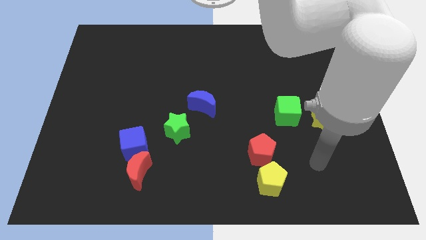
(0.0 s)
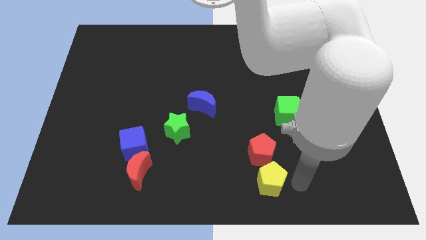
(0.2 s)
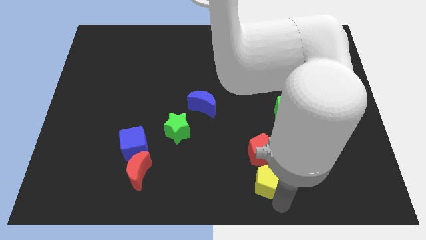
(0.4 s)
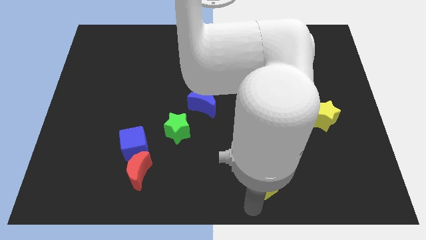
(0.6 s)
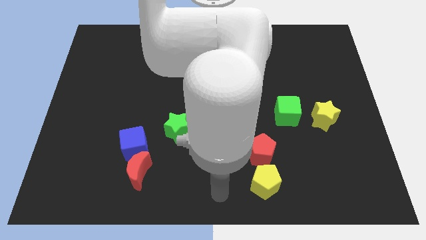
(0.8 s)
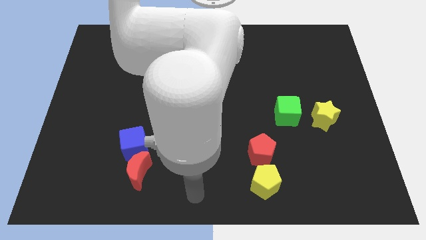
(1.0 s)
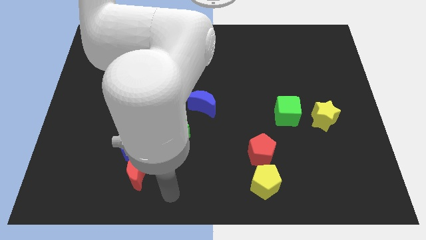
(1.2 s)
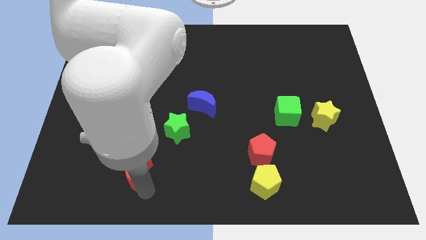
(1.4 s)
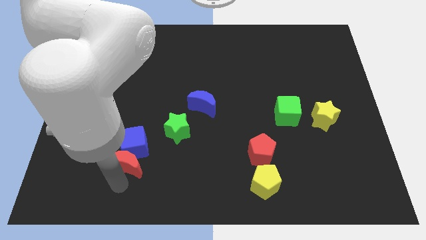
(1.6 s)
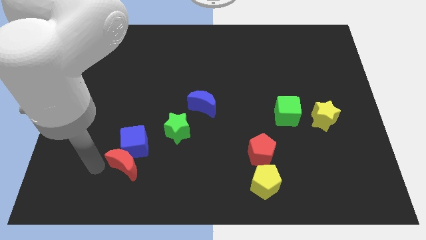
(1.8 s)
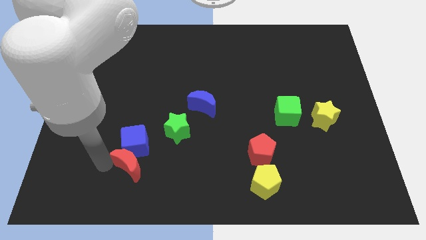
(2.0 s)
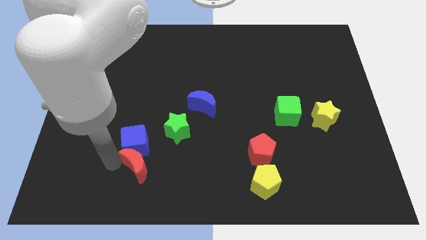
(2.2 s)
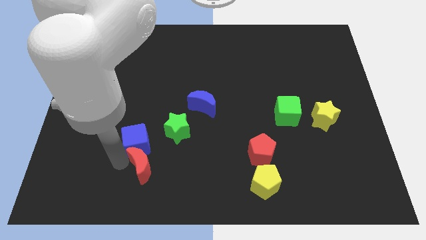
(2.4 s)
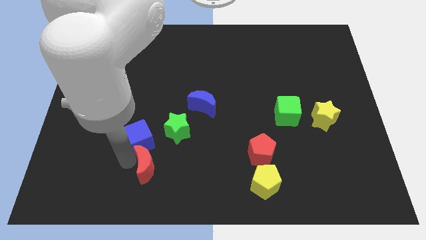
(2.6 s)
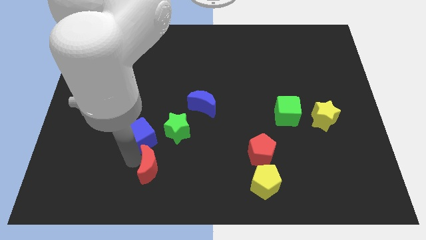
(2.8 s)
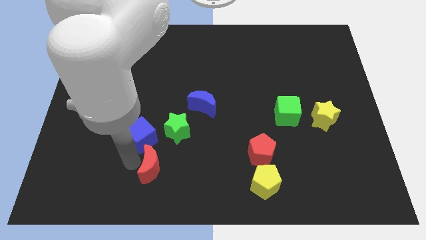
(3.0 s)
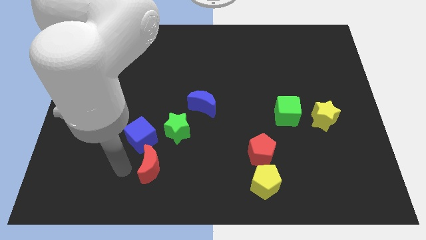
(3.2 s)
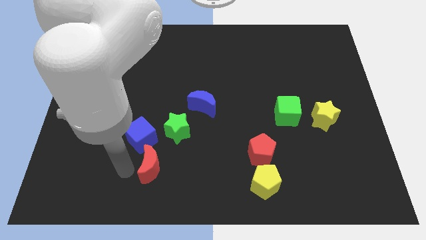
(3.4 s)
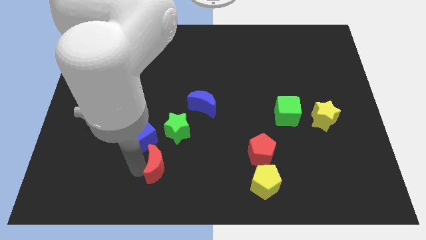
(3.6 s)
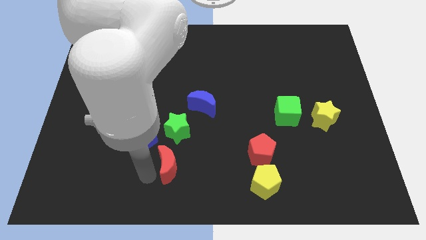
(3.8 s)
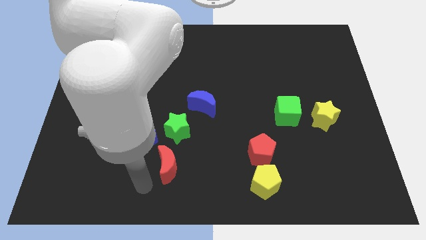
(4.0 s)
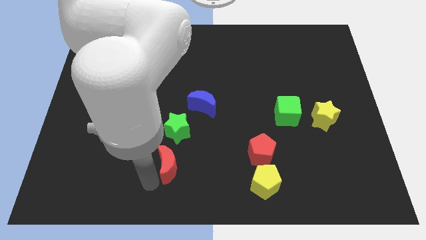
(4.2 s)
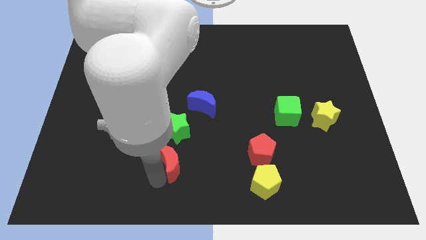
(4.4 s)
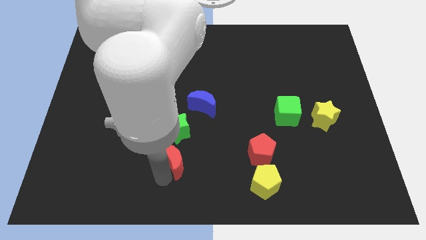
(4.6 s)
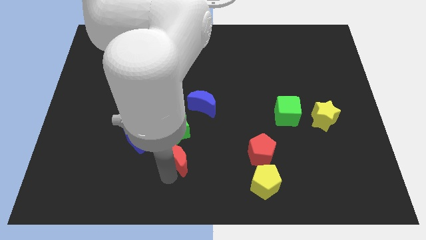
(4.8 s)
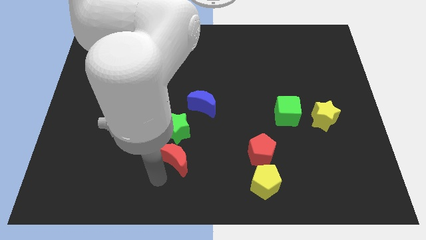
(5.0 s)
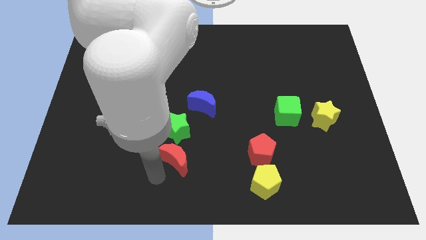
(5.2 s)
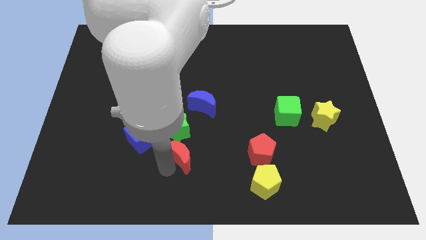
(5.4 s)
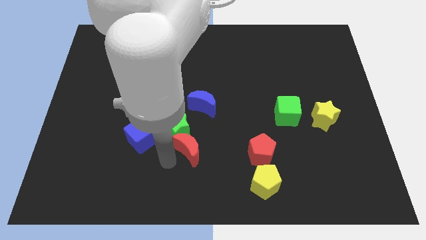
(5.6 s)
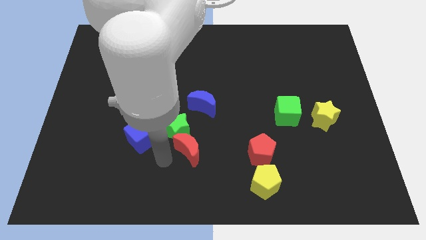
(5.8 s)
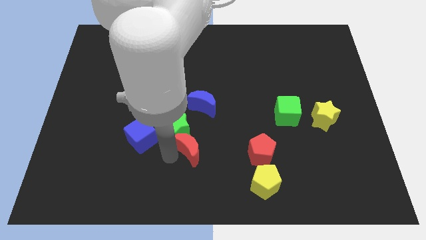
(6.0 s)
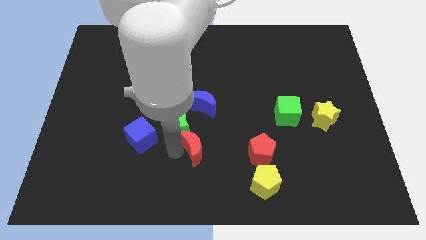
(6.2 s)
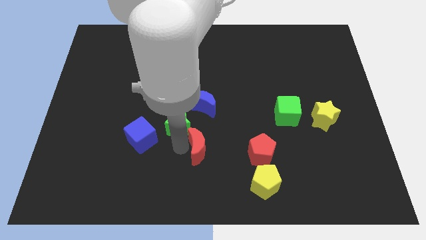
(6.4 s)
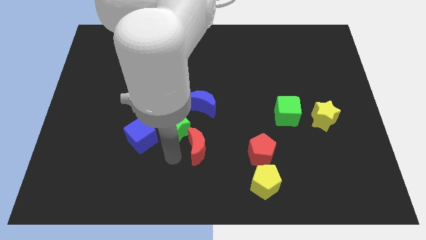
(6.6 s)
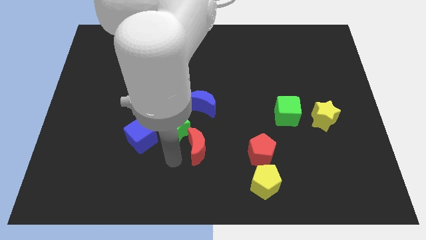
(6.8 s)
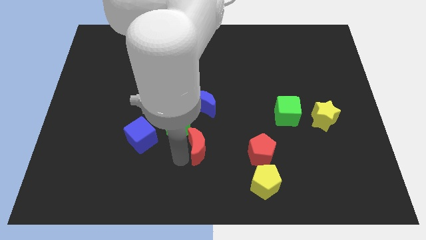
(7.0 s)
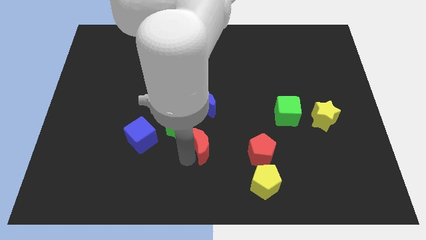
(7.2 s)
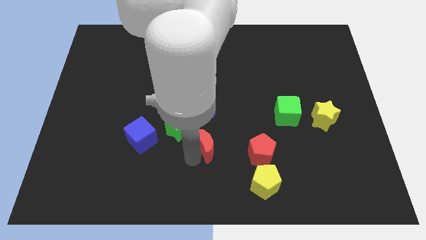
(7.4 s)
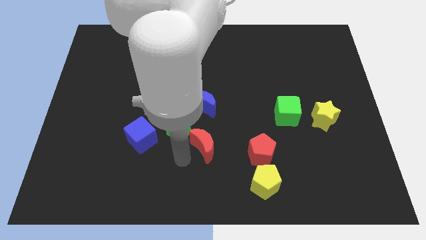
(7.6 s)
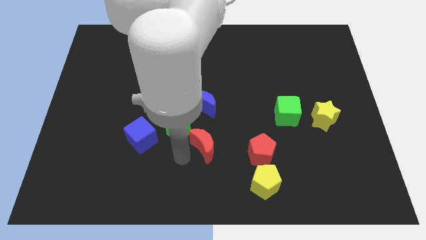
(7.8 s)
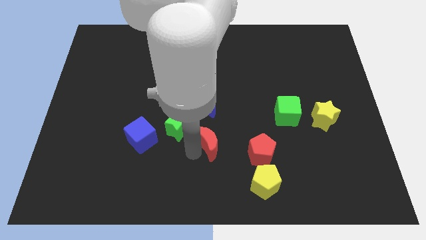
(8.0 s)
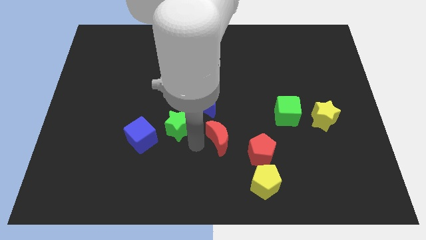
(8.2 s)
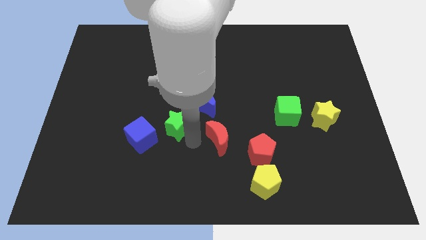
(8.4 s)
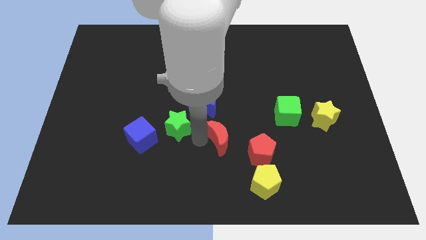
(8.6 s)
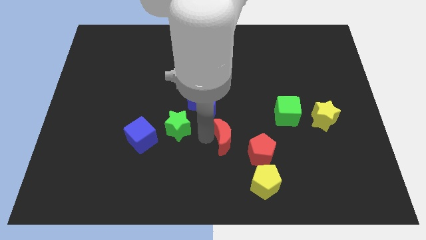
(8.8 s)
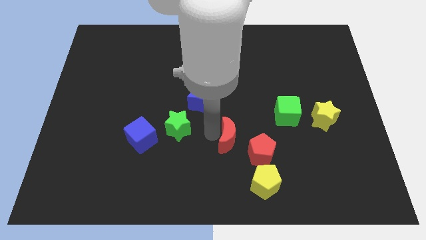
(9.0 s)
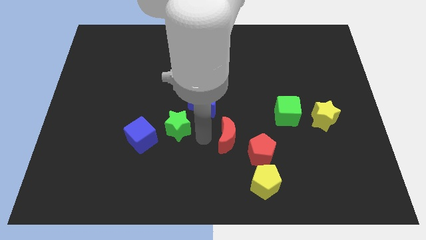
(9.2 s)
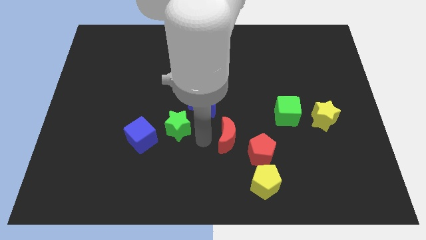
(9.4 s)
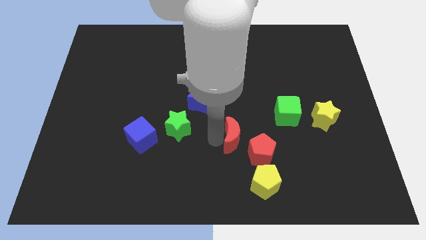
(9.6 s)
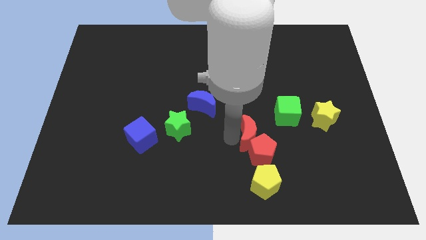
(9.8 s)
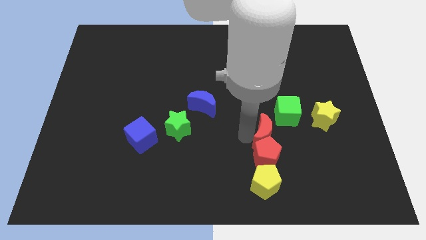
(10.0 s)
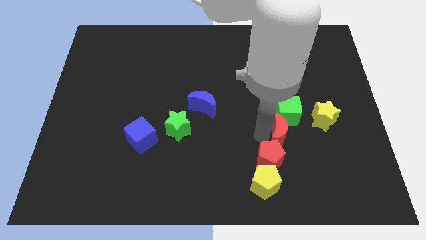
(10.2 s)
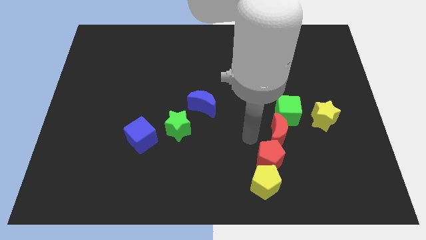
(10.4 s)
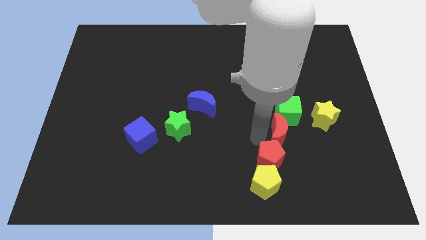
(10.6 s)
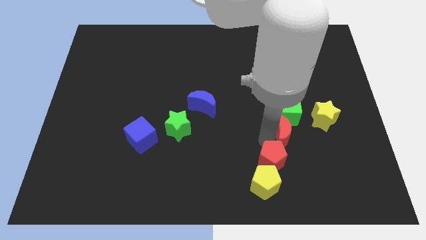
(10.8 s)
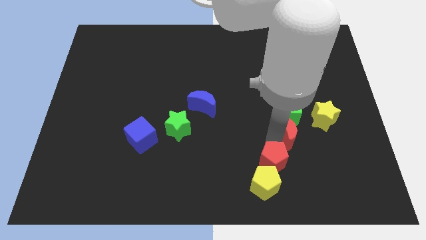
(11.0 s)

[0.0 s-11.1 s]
push the red moon diagonally down and to the right of the green cube

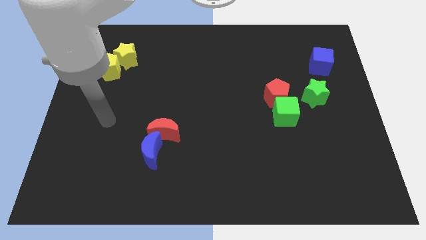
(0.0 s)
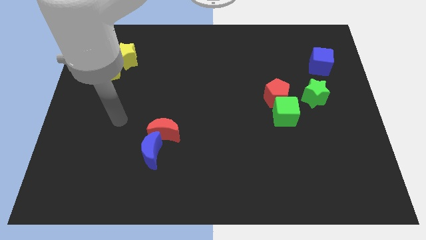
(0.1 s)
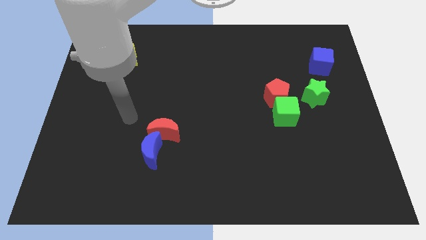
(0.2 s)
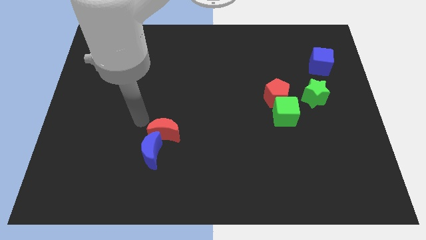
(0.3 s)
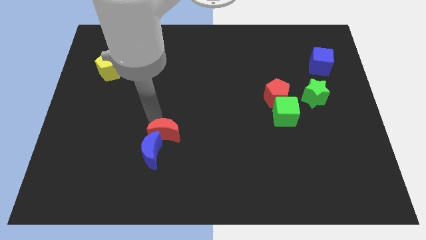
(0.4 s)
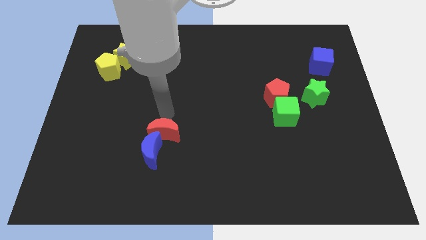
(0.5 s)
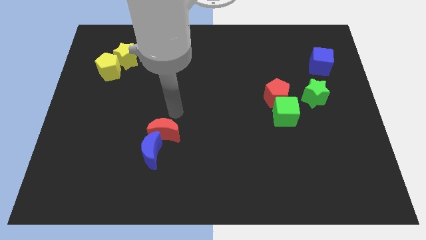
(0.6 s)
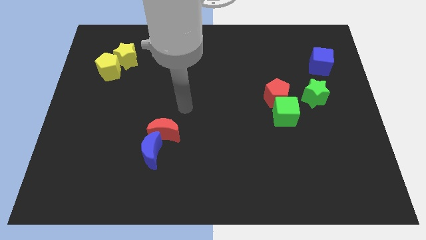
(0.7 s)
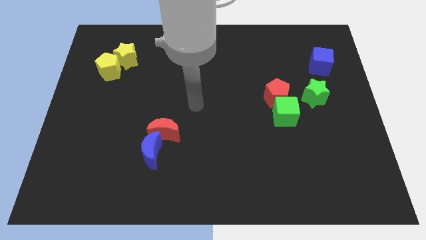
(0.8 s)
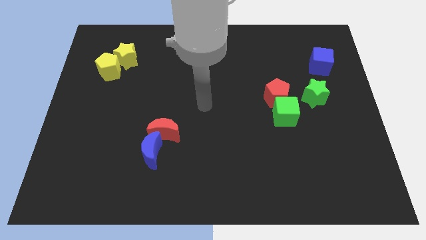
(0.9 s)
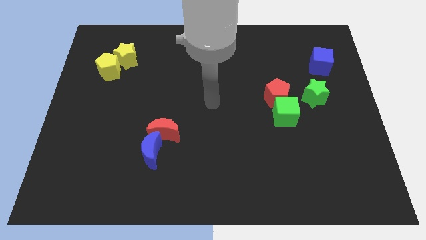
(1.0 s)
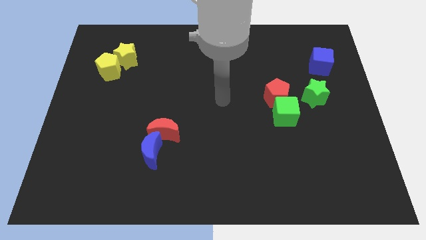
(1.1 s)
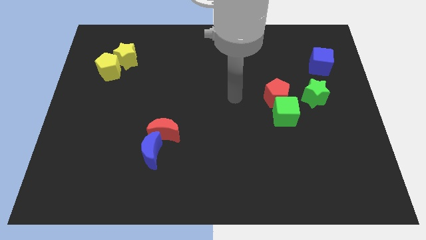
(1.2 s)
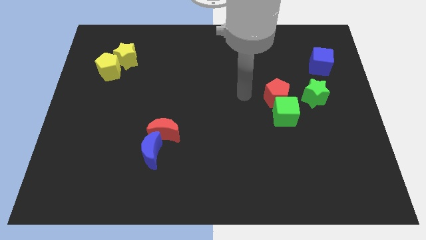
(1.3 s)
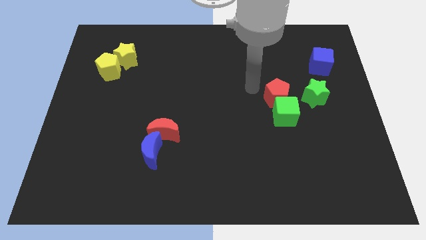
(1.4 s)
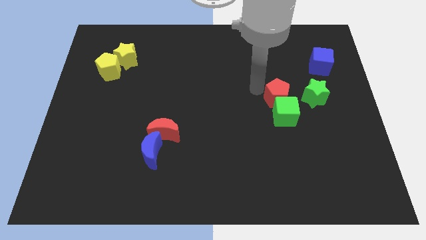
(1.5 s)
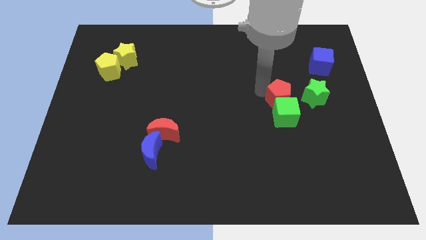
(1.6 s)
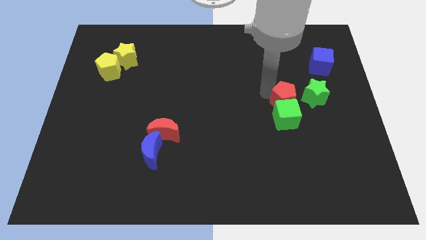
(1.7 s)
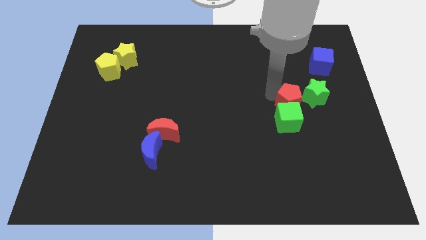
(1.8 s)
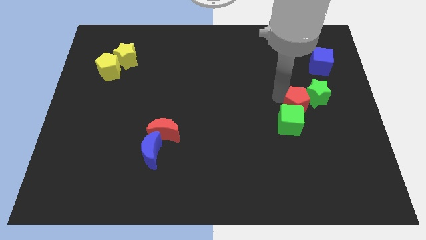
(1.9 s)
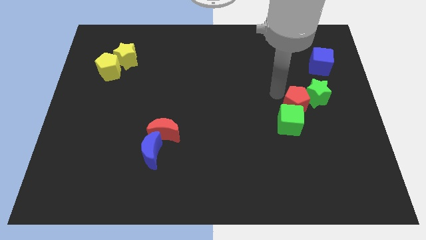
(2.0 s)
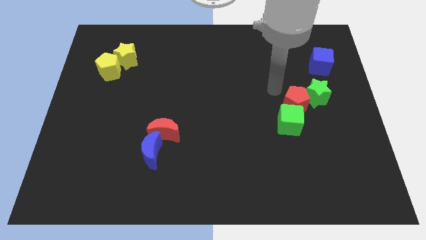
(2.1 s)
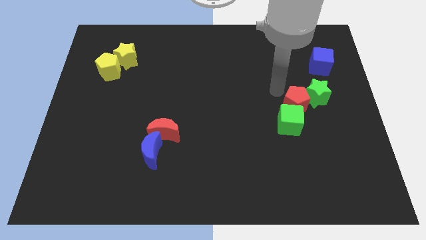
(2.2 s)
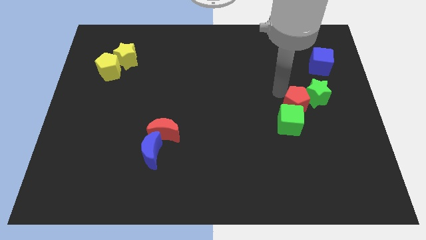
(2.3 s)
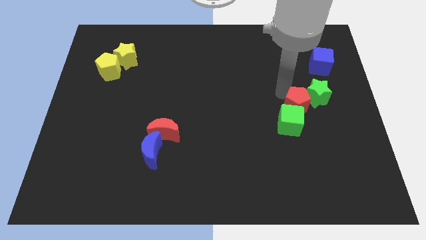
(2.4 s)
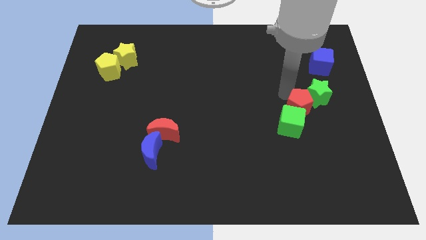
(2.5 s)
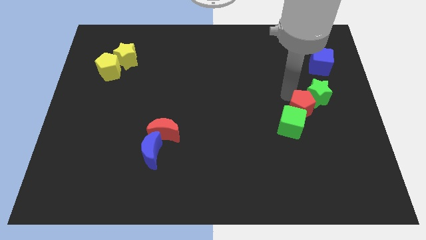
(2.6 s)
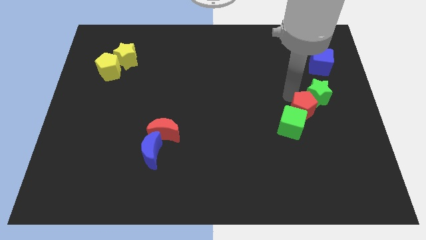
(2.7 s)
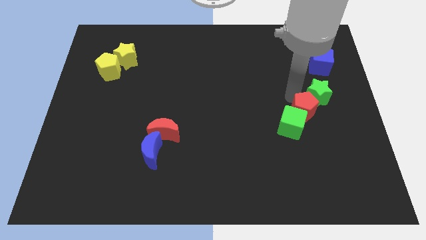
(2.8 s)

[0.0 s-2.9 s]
slide the red pentagon to the right side of the green cube

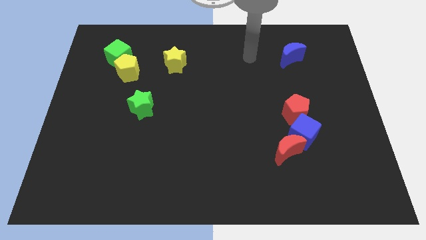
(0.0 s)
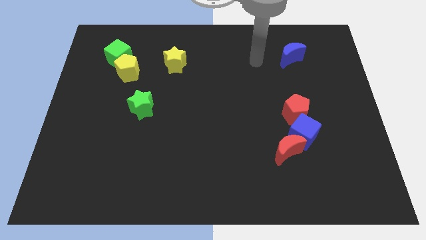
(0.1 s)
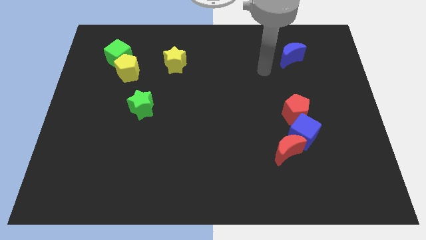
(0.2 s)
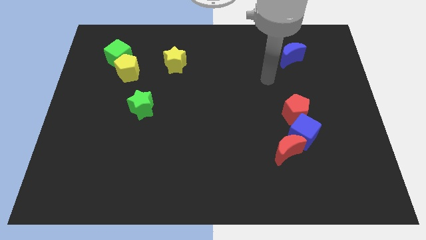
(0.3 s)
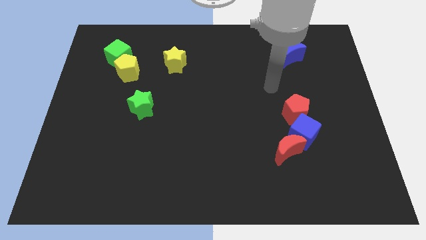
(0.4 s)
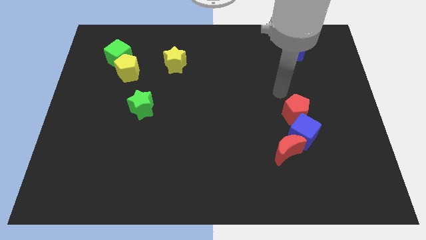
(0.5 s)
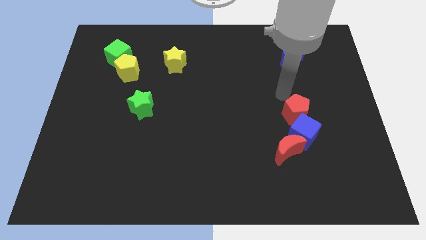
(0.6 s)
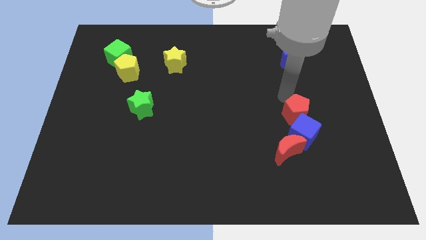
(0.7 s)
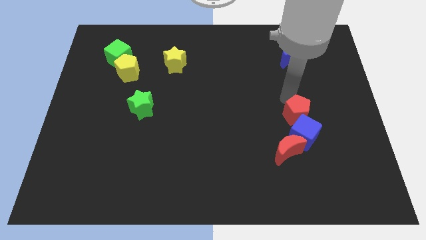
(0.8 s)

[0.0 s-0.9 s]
push the red pentagon to the top right side of the red moon
